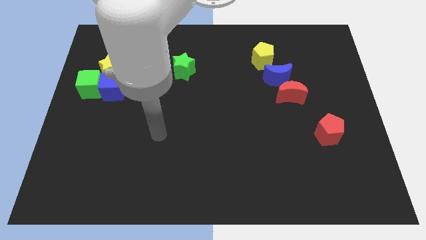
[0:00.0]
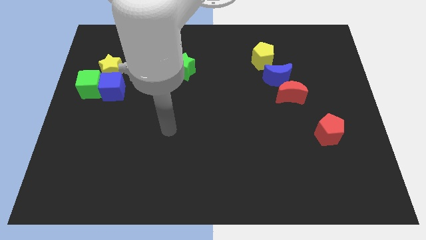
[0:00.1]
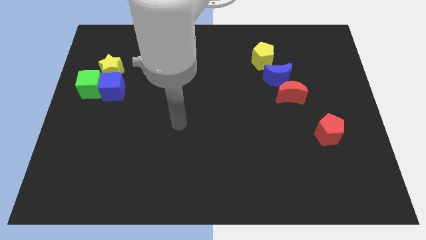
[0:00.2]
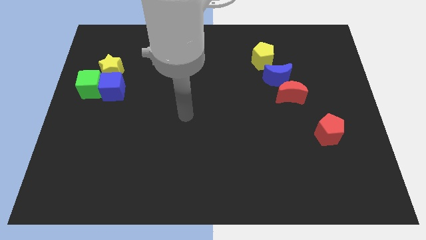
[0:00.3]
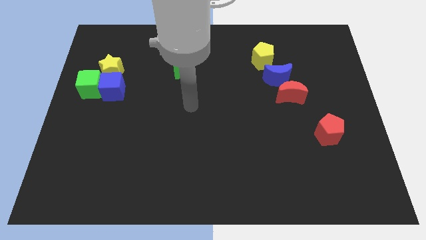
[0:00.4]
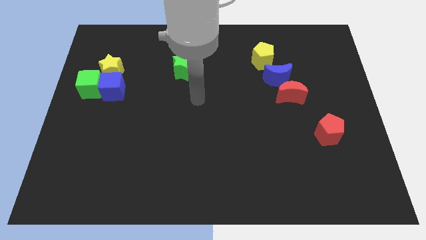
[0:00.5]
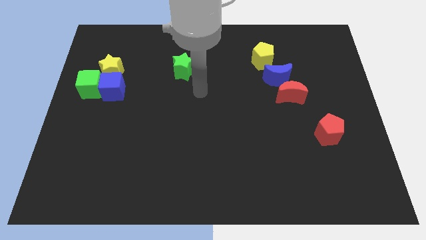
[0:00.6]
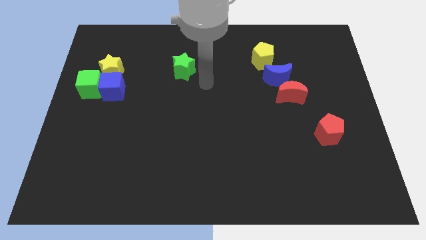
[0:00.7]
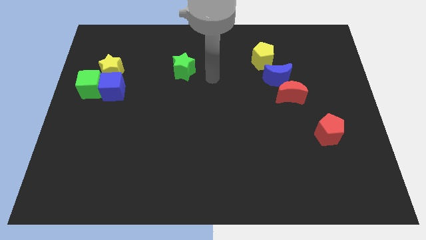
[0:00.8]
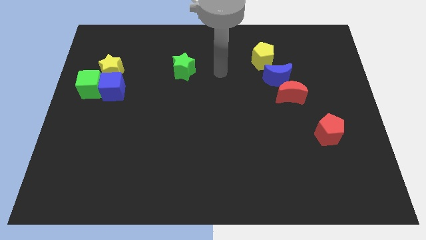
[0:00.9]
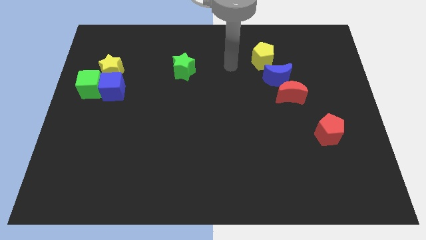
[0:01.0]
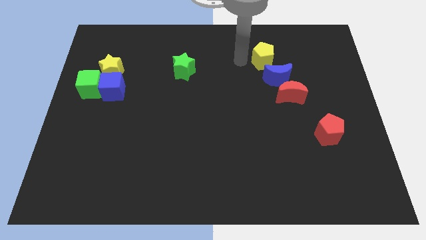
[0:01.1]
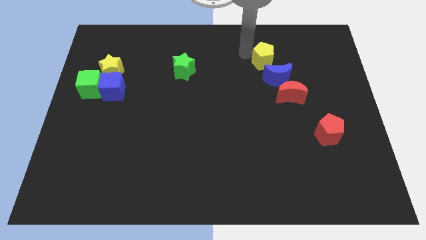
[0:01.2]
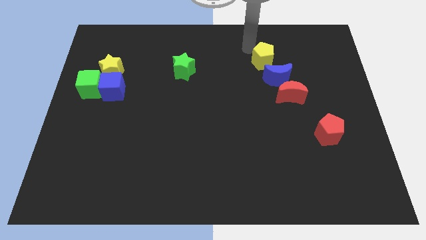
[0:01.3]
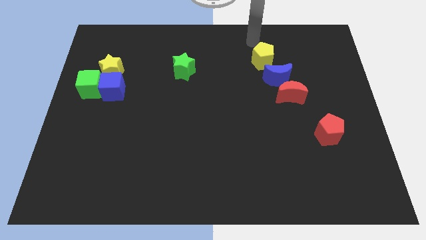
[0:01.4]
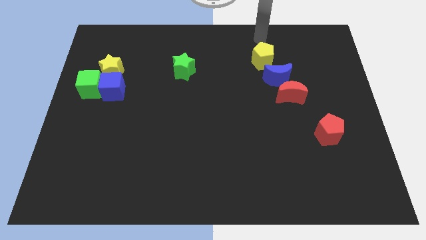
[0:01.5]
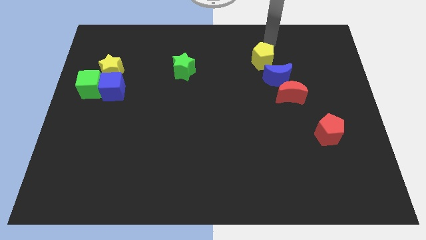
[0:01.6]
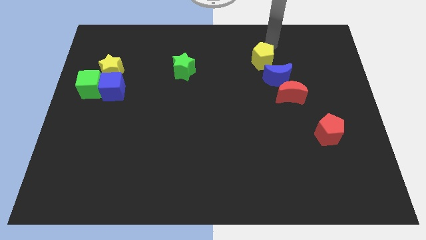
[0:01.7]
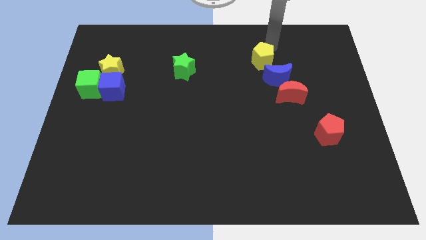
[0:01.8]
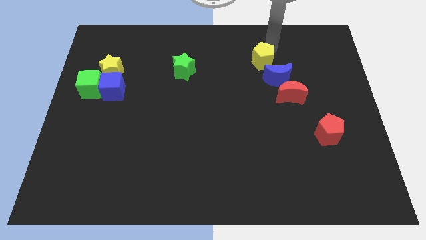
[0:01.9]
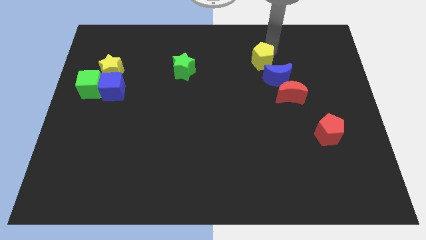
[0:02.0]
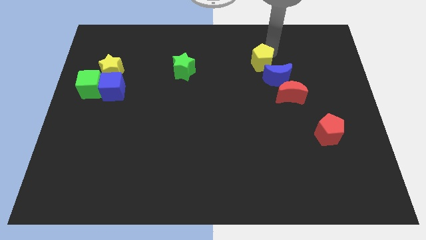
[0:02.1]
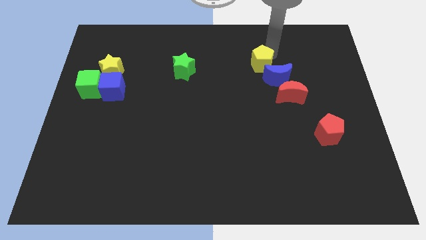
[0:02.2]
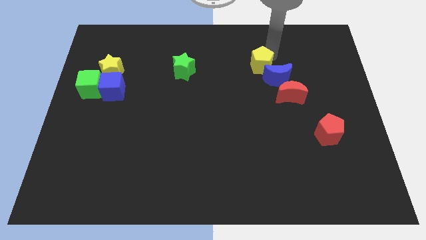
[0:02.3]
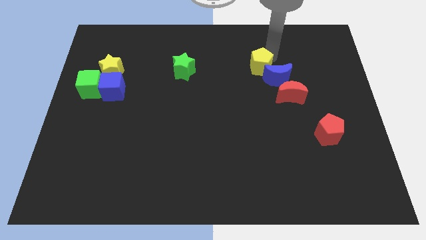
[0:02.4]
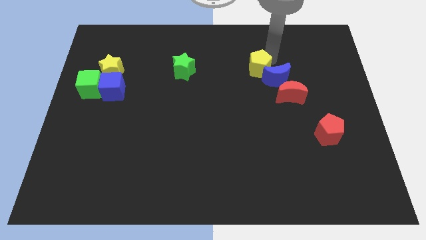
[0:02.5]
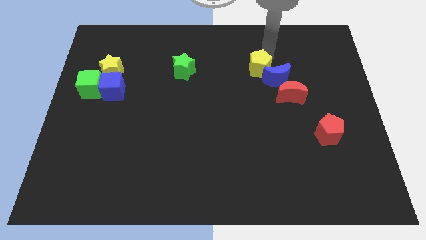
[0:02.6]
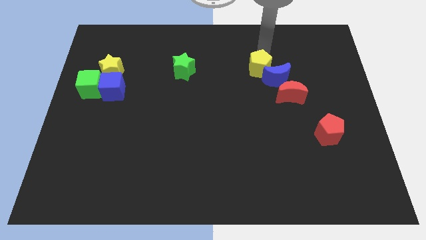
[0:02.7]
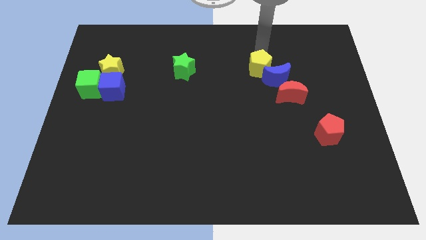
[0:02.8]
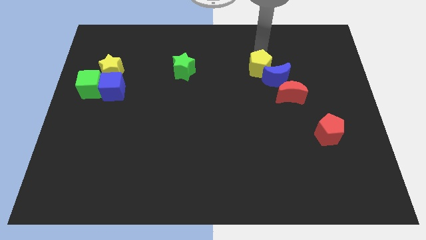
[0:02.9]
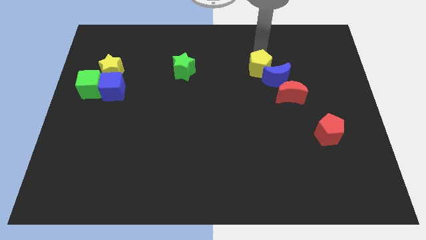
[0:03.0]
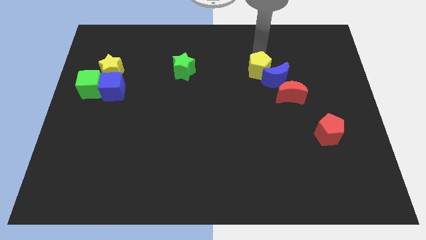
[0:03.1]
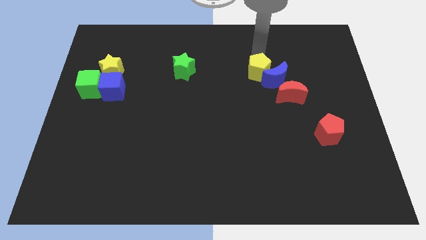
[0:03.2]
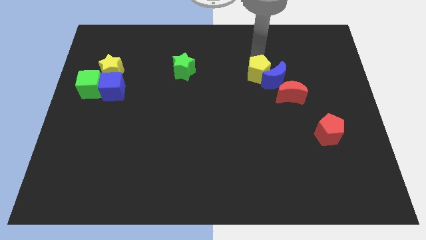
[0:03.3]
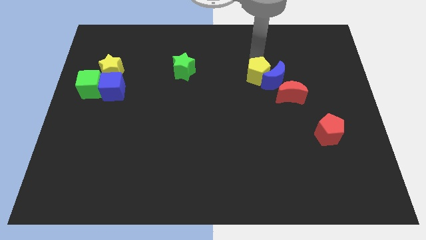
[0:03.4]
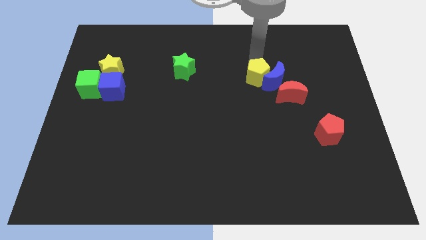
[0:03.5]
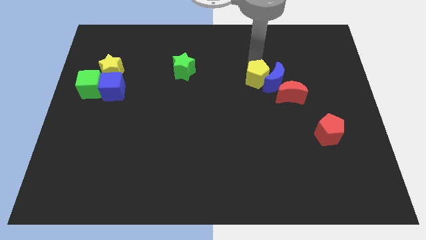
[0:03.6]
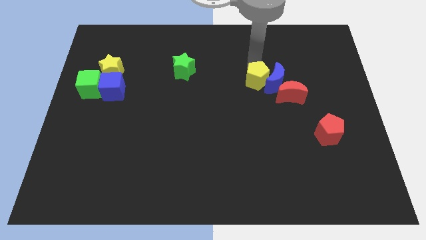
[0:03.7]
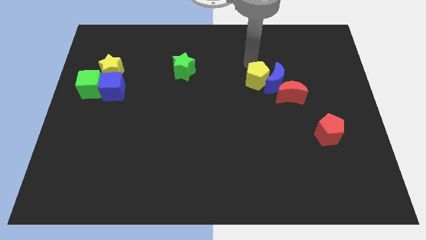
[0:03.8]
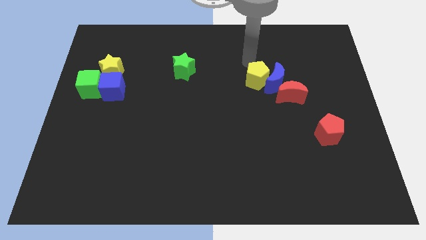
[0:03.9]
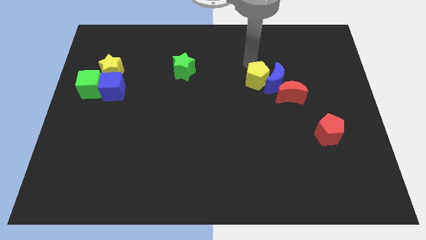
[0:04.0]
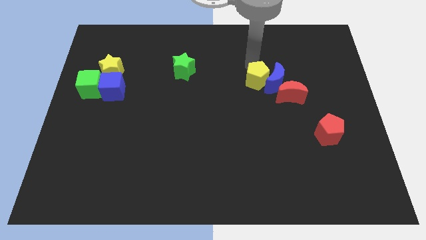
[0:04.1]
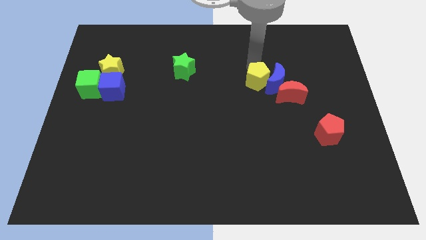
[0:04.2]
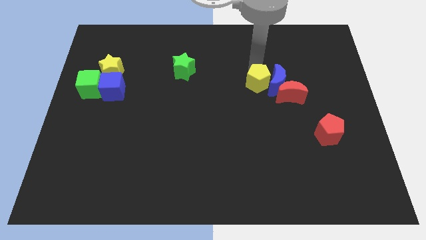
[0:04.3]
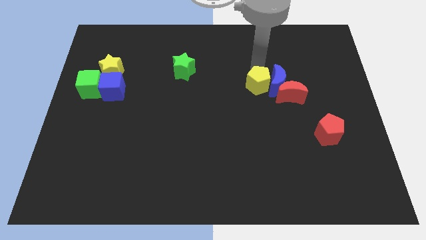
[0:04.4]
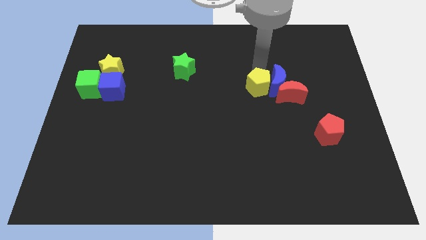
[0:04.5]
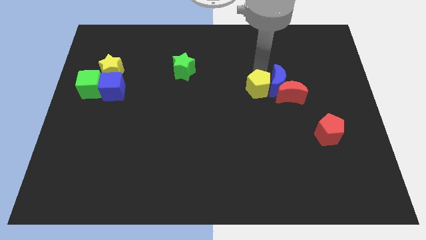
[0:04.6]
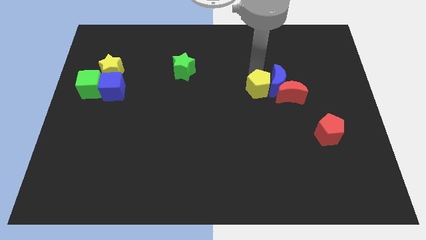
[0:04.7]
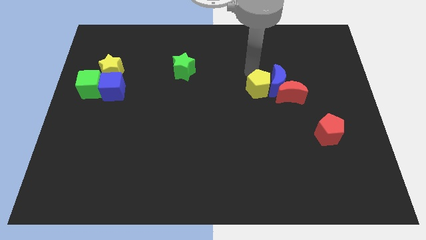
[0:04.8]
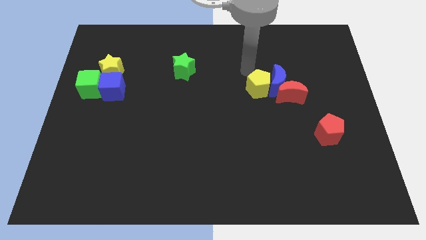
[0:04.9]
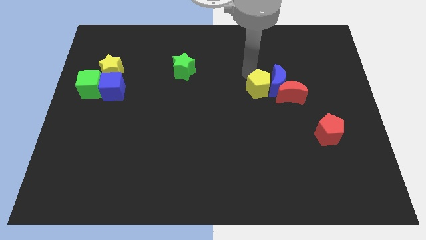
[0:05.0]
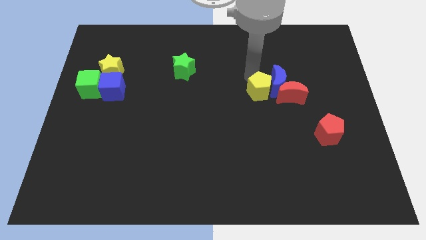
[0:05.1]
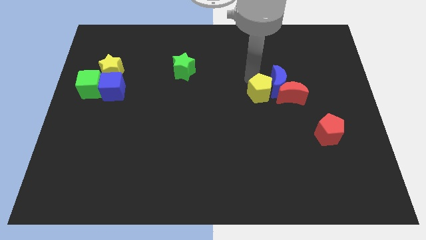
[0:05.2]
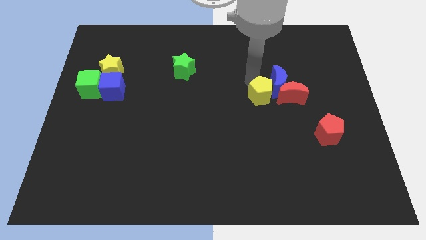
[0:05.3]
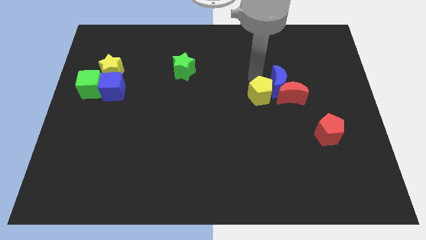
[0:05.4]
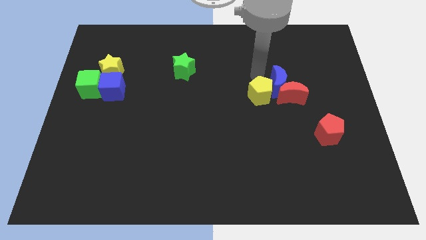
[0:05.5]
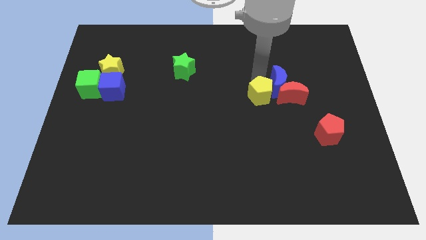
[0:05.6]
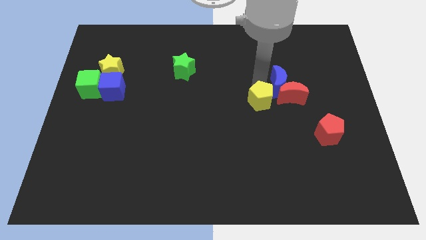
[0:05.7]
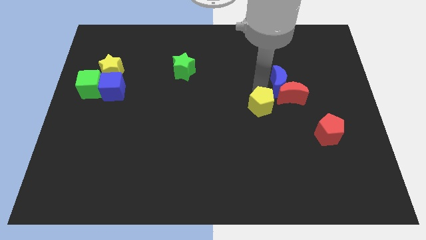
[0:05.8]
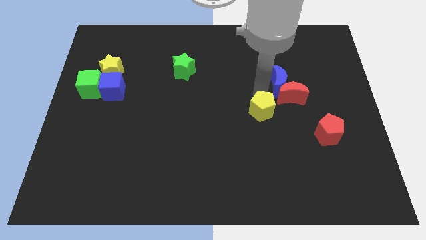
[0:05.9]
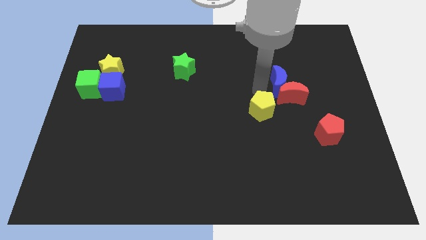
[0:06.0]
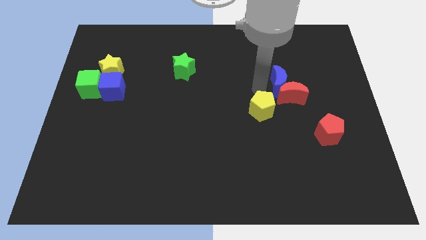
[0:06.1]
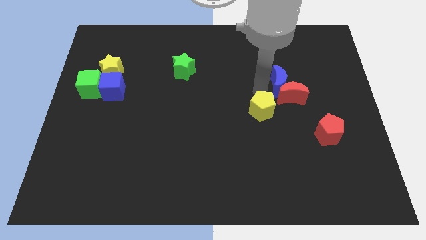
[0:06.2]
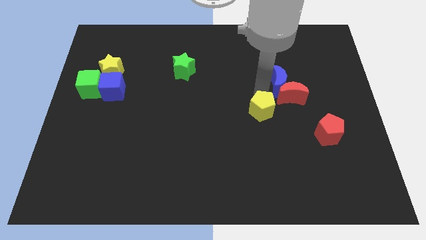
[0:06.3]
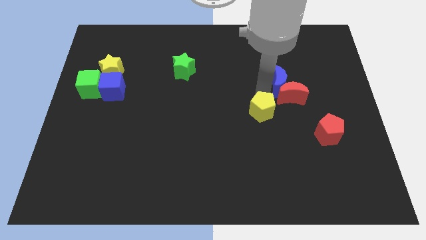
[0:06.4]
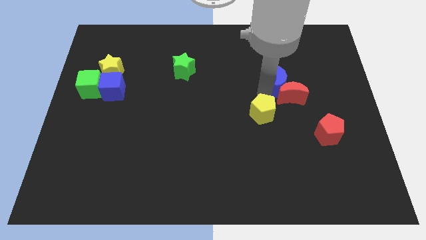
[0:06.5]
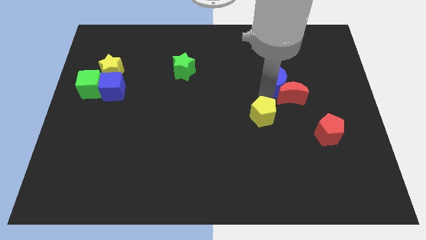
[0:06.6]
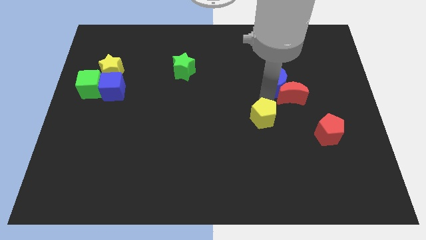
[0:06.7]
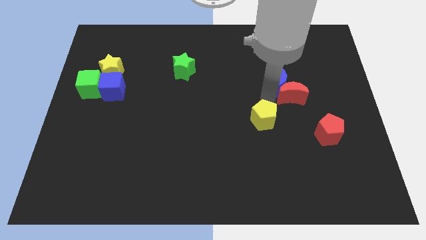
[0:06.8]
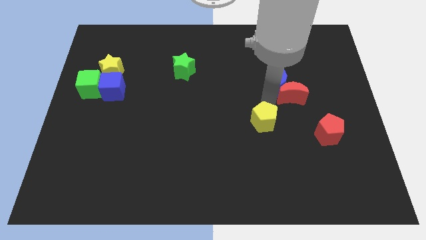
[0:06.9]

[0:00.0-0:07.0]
push the yellow pentagon downwards

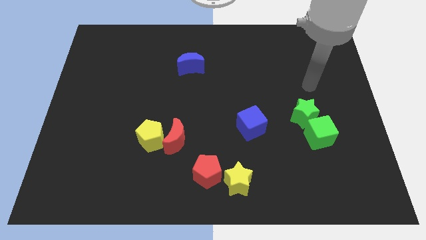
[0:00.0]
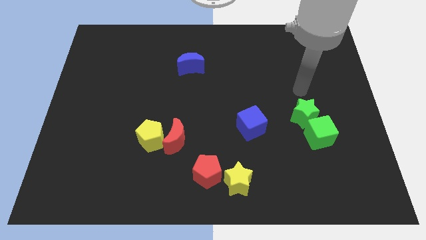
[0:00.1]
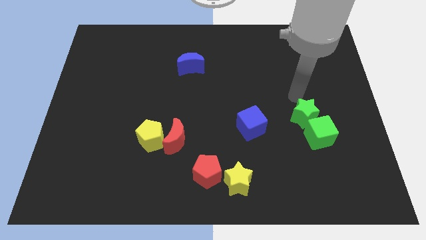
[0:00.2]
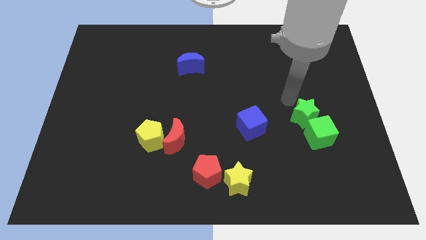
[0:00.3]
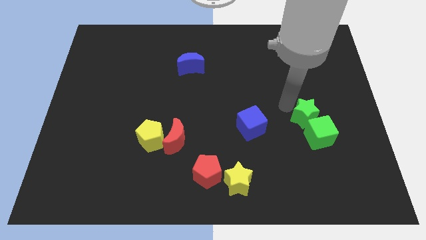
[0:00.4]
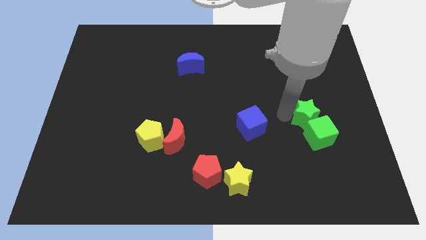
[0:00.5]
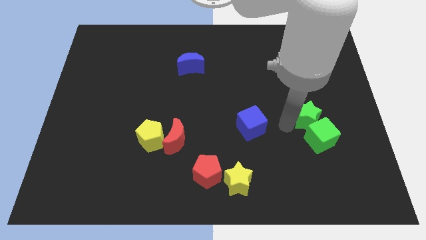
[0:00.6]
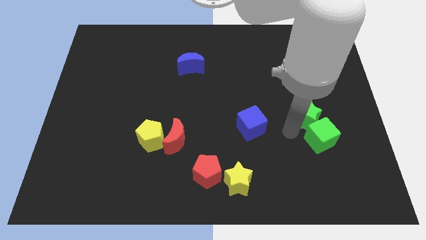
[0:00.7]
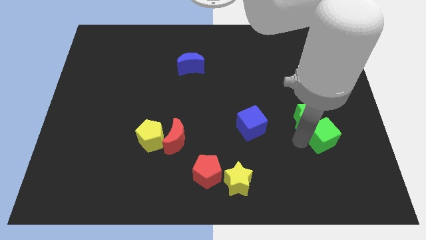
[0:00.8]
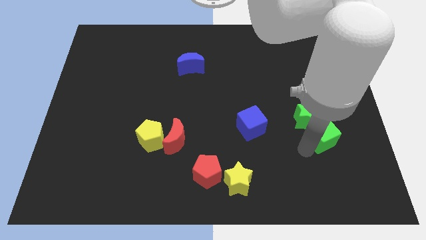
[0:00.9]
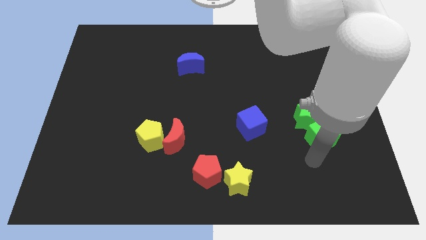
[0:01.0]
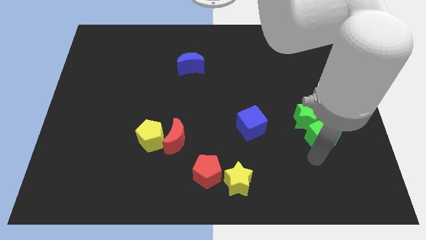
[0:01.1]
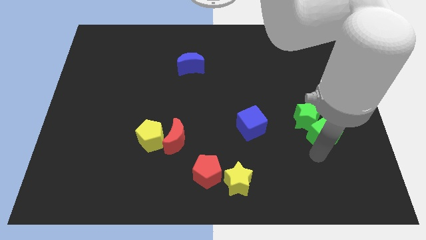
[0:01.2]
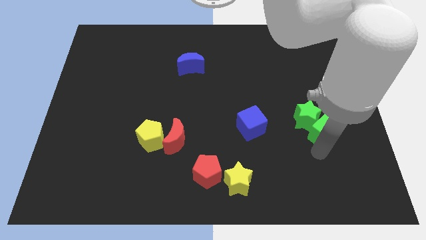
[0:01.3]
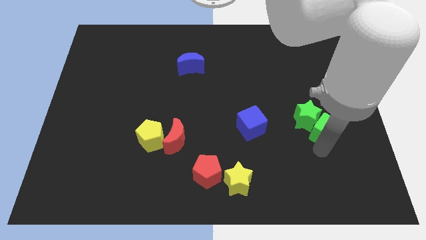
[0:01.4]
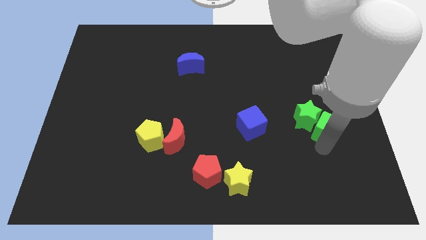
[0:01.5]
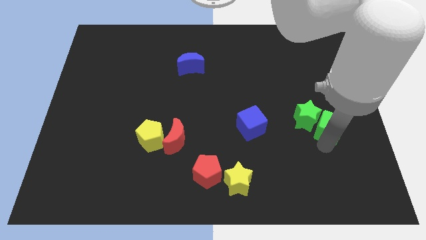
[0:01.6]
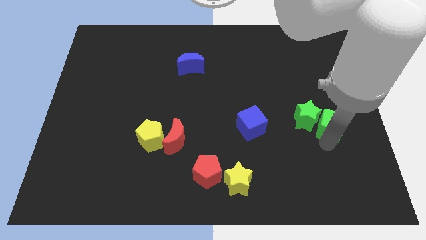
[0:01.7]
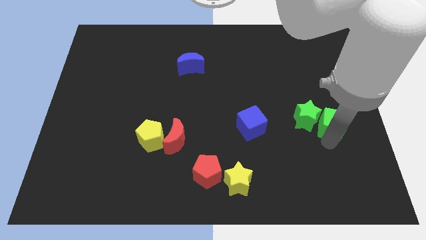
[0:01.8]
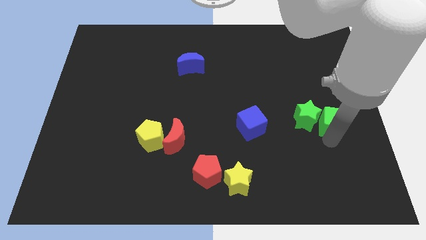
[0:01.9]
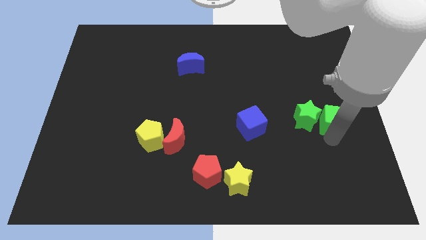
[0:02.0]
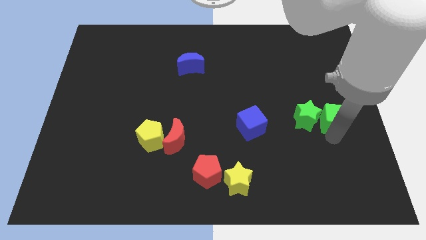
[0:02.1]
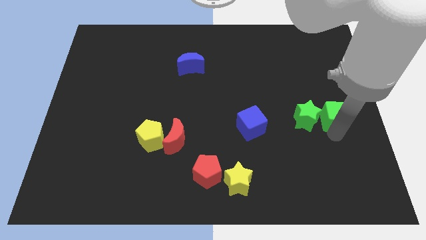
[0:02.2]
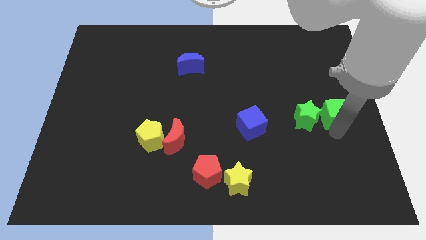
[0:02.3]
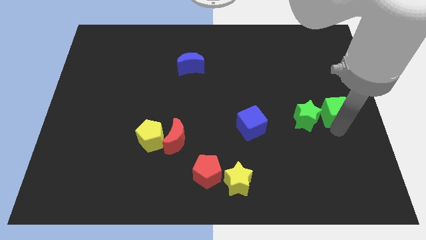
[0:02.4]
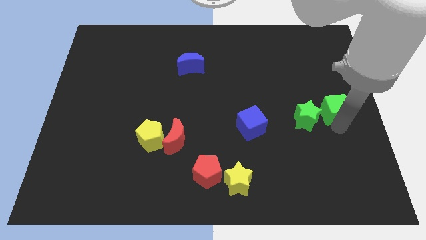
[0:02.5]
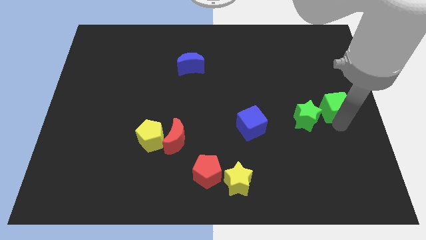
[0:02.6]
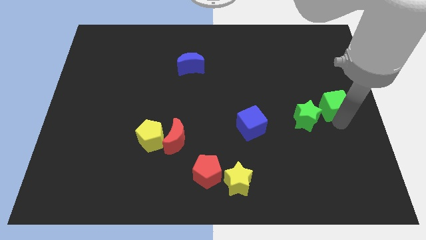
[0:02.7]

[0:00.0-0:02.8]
slightly slide the green cube upwards
